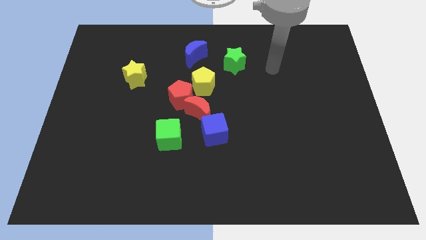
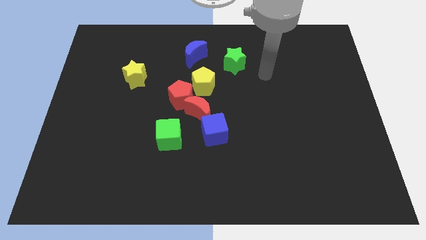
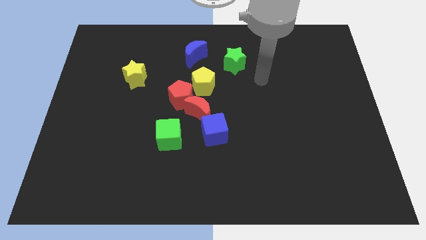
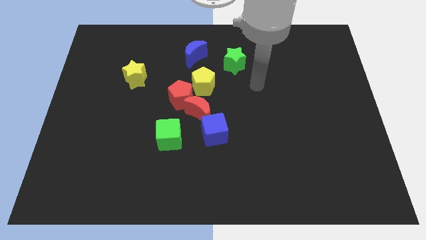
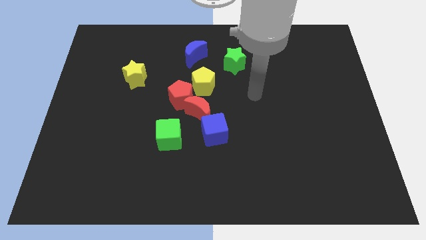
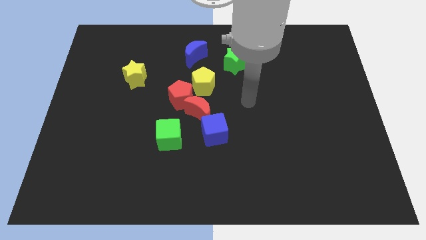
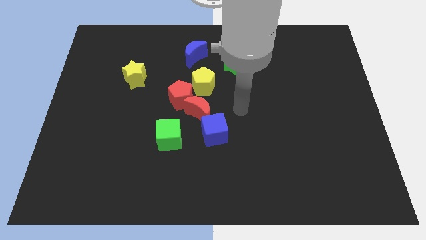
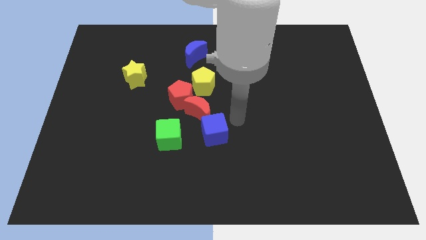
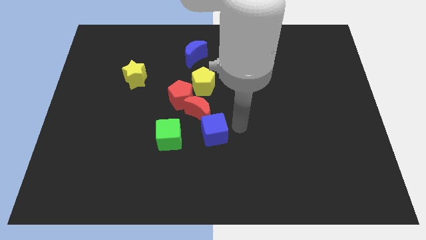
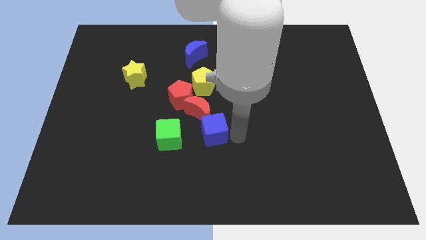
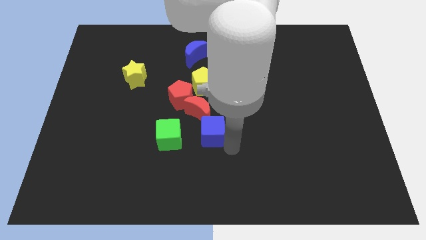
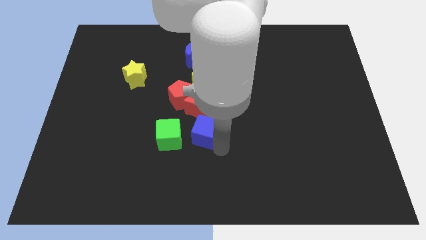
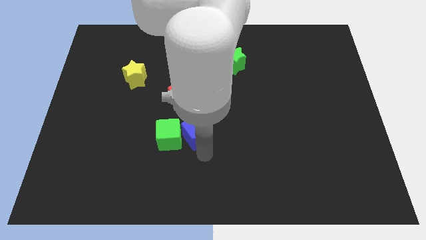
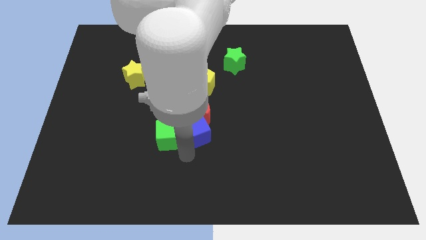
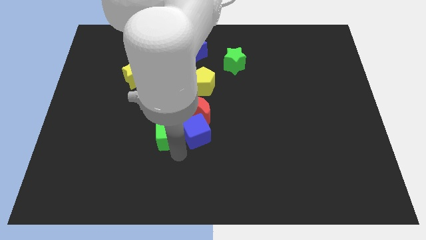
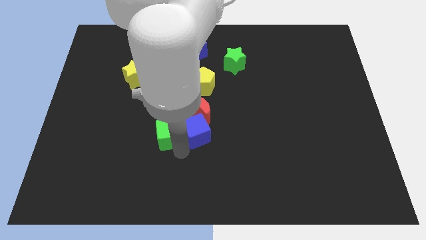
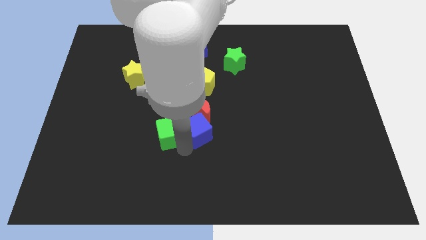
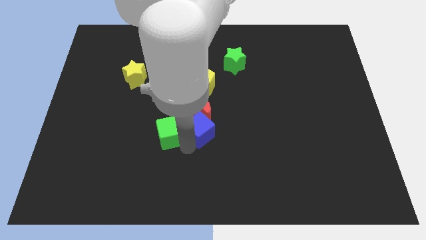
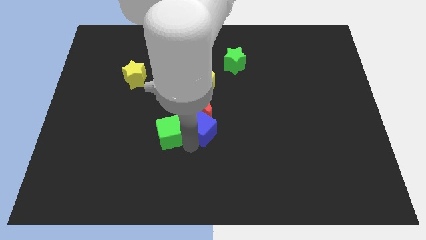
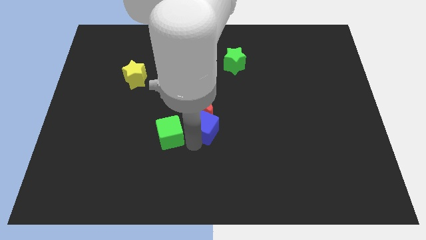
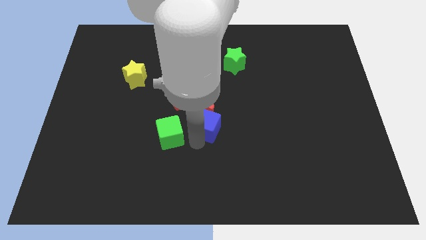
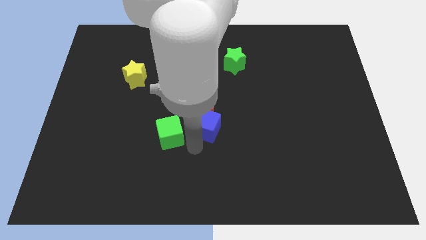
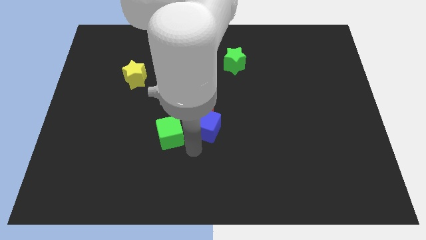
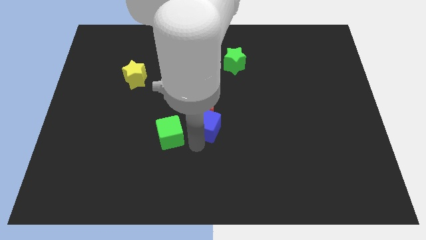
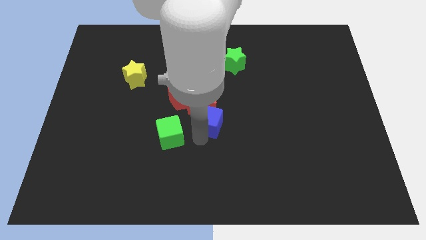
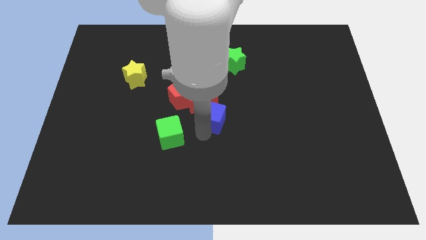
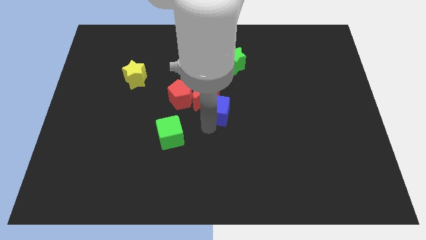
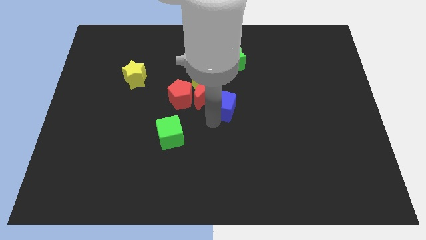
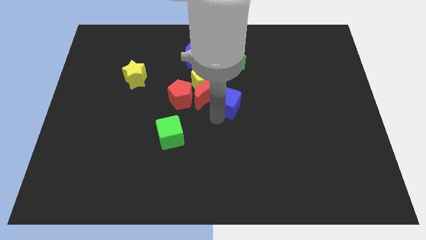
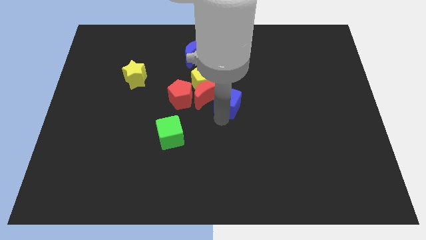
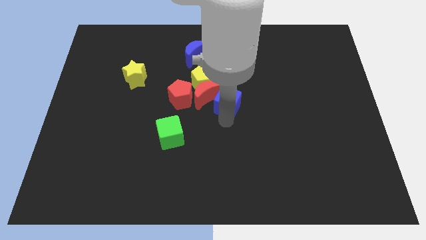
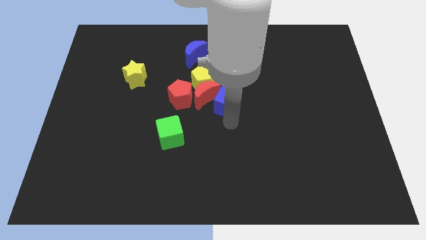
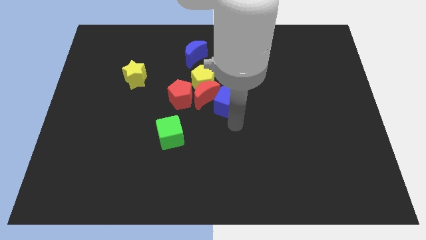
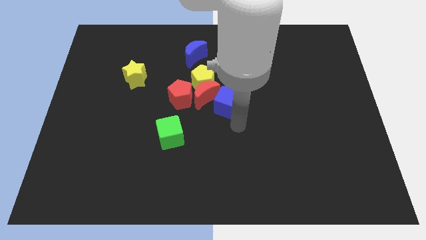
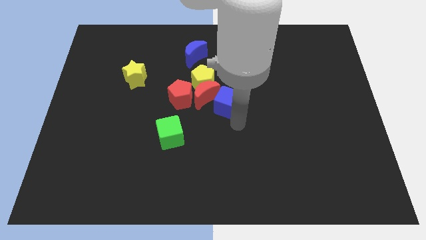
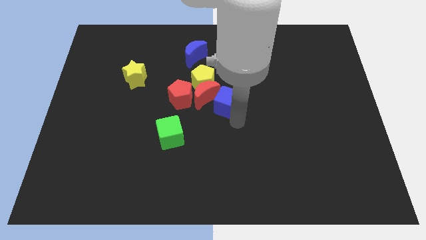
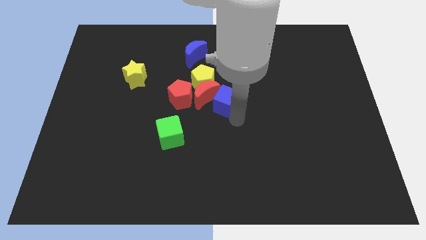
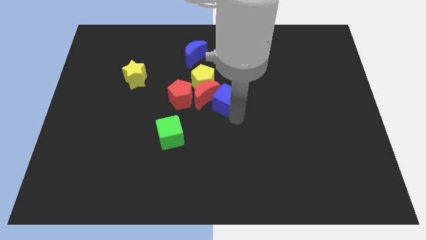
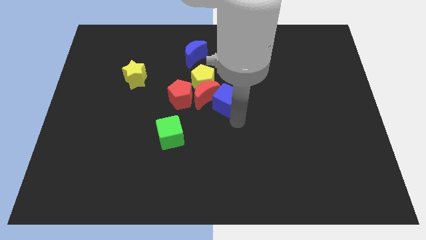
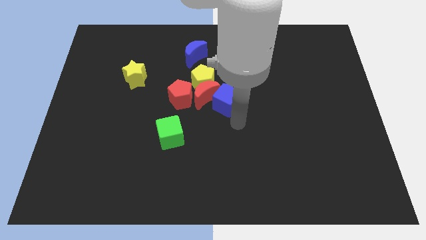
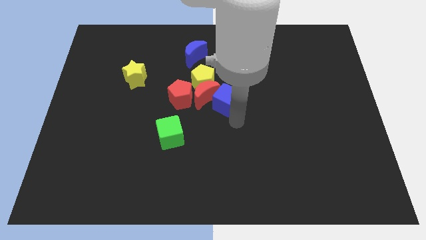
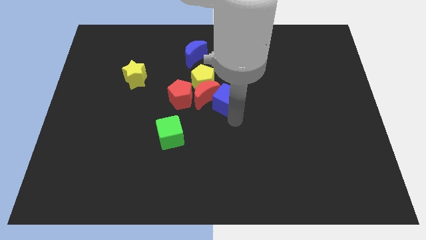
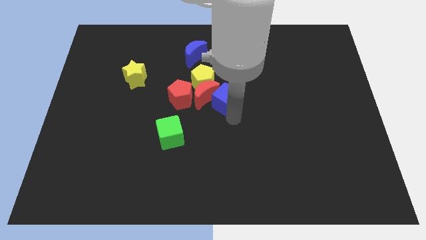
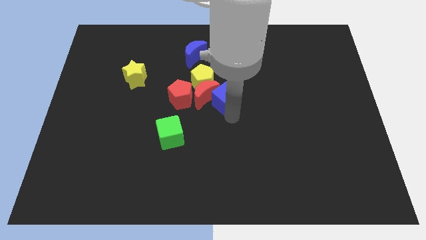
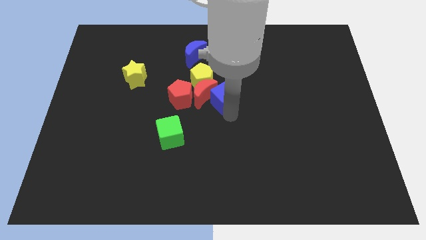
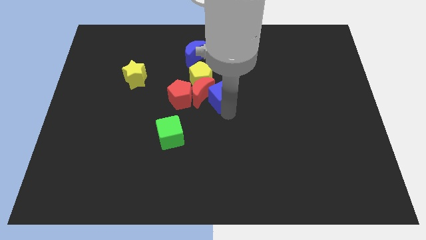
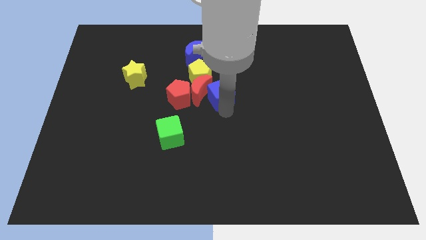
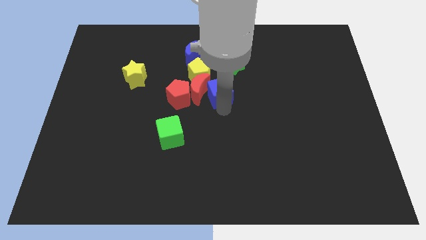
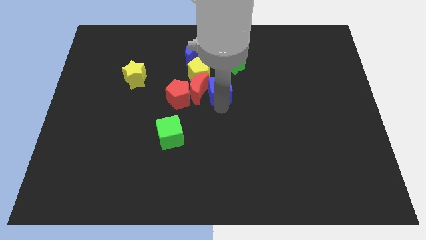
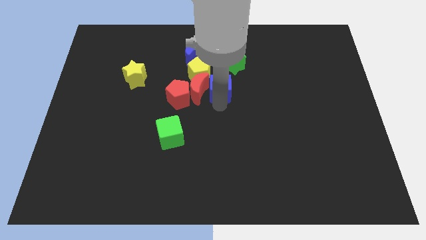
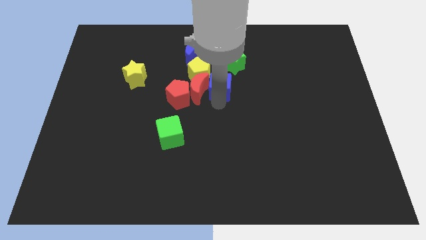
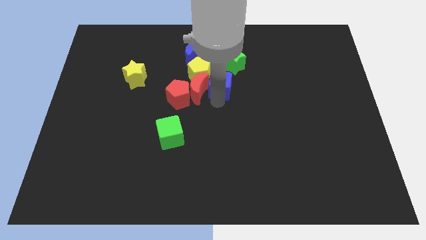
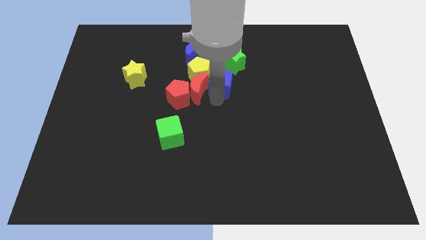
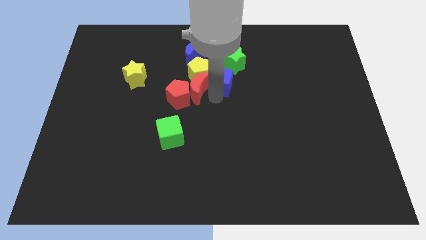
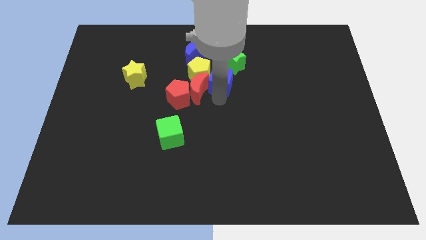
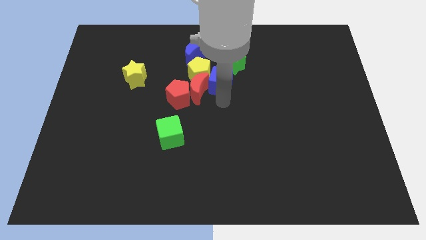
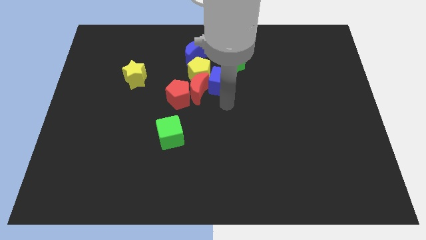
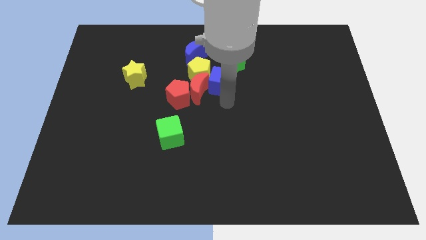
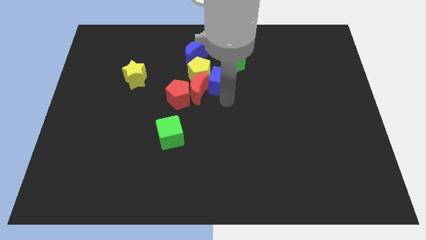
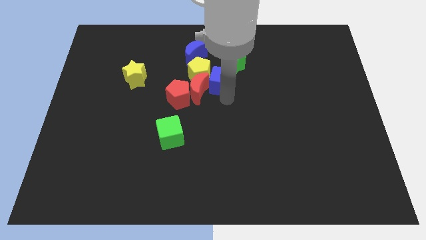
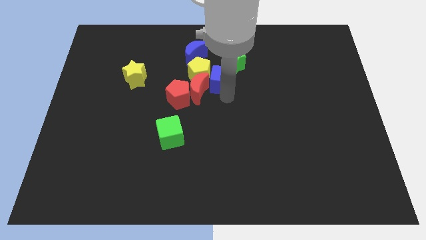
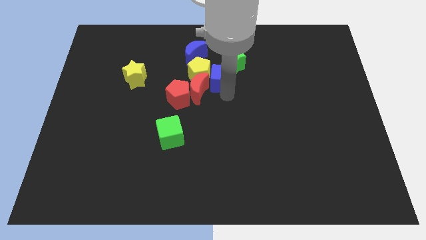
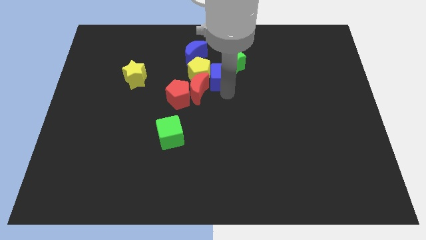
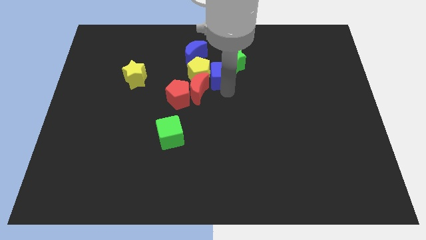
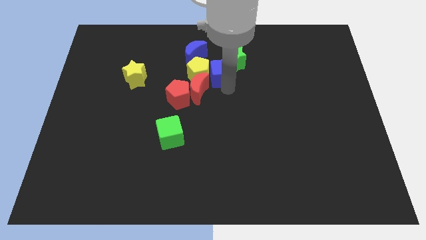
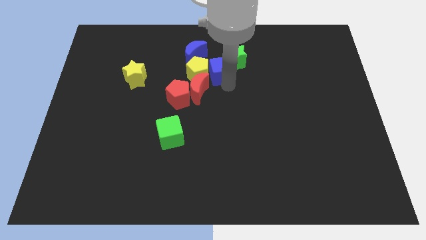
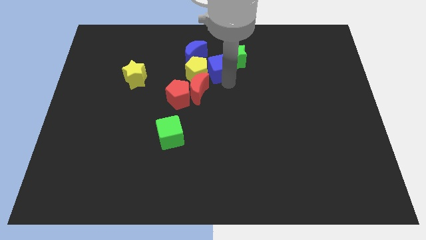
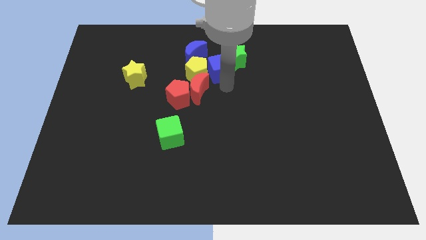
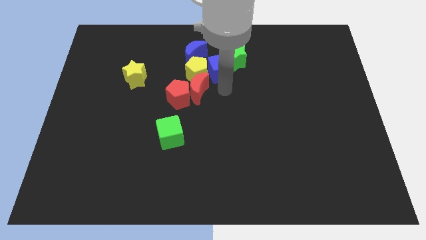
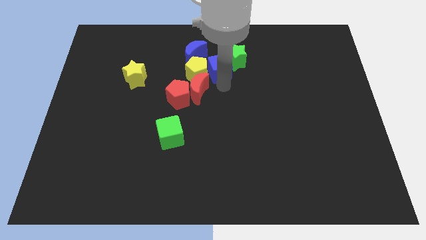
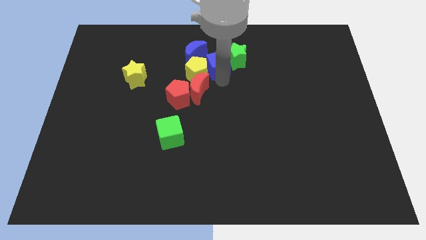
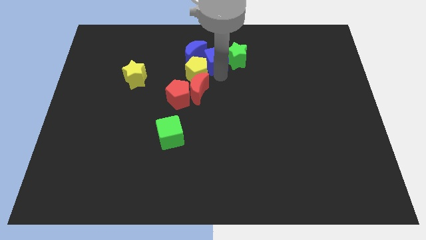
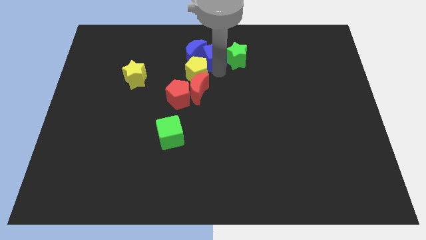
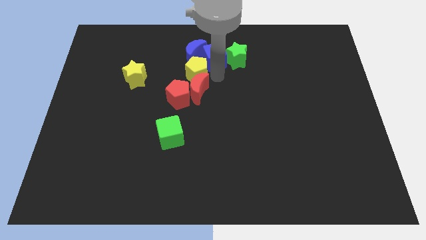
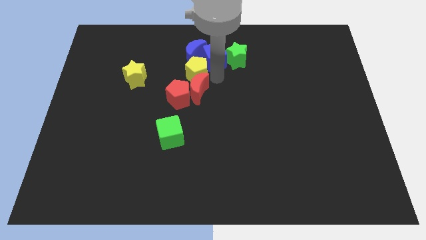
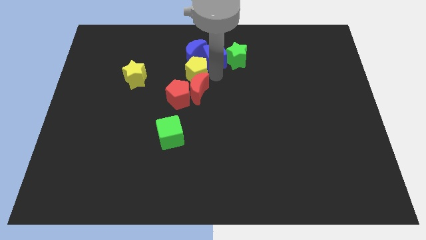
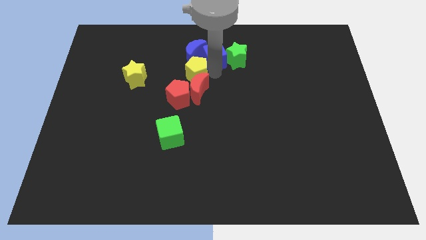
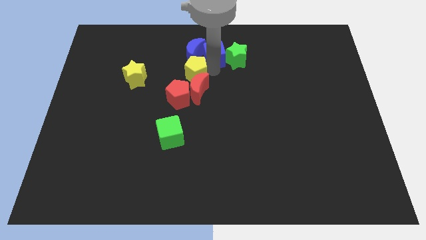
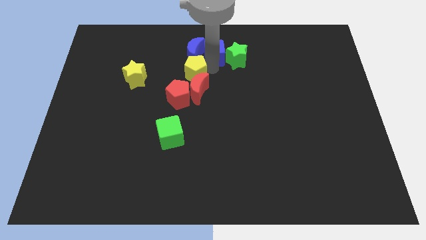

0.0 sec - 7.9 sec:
push the blue cube to the top
